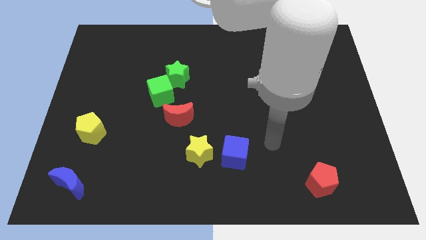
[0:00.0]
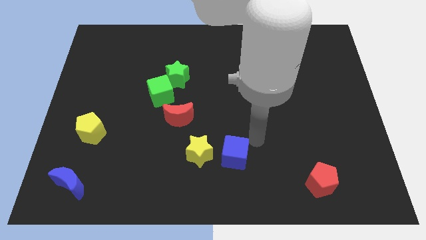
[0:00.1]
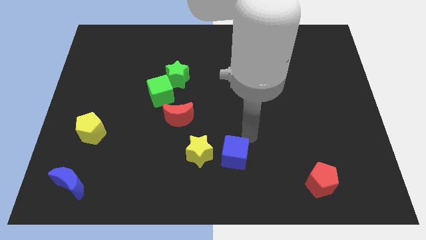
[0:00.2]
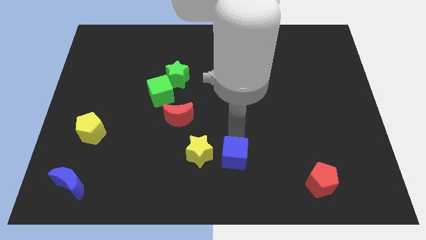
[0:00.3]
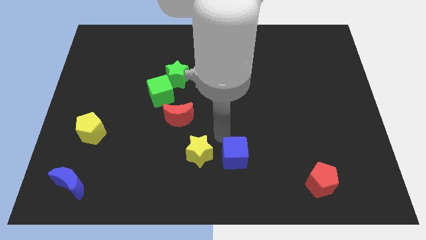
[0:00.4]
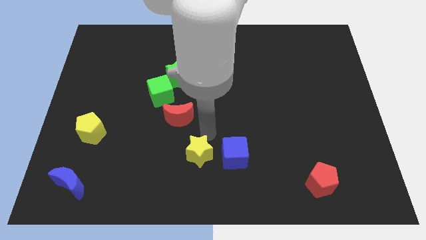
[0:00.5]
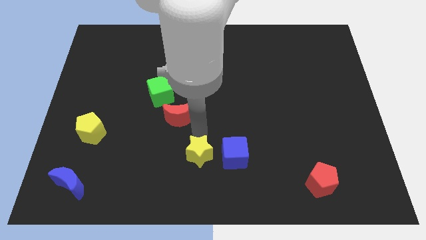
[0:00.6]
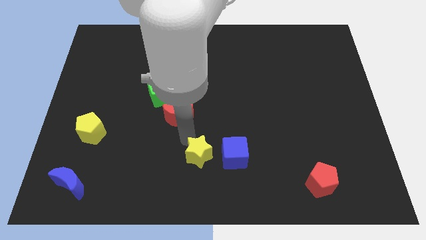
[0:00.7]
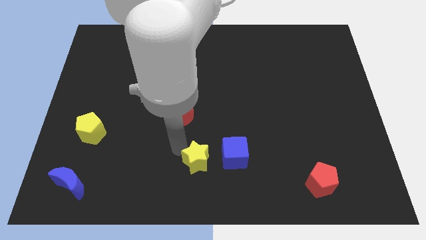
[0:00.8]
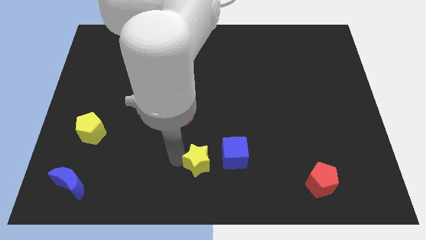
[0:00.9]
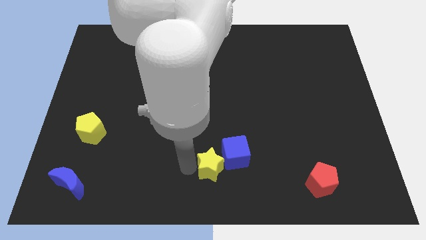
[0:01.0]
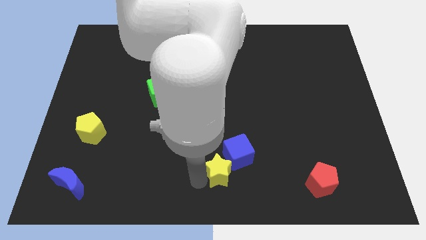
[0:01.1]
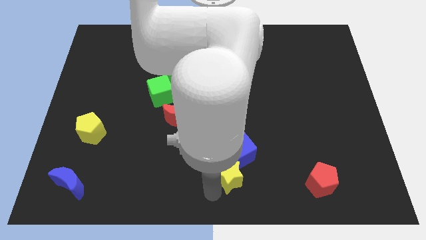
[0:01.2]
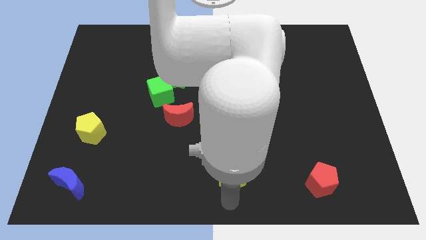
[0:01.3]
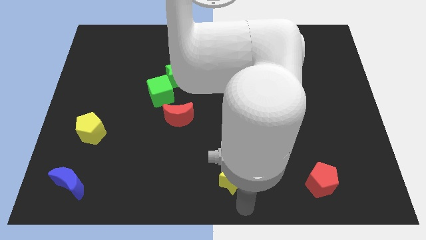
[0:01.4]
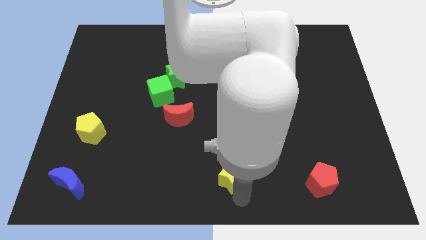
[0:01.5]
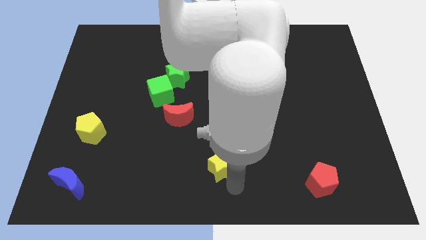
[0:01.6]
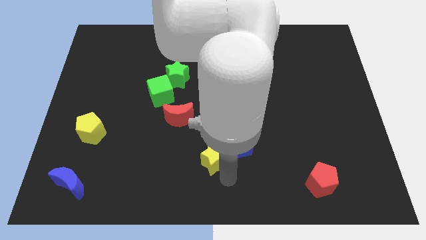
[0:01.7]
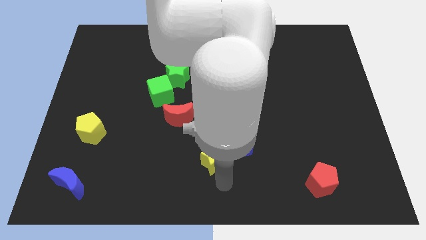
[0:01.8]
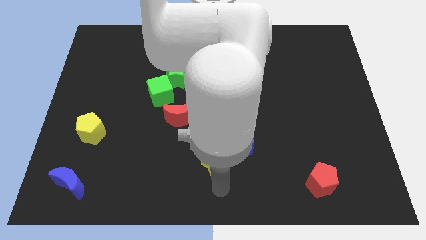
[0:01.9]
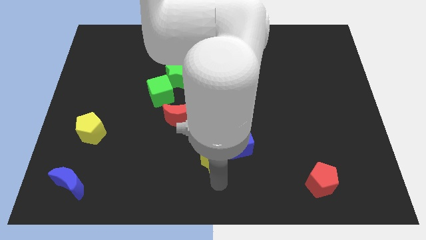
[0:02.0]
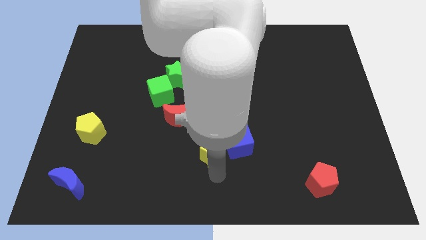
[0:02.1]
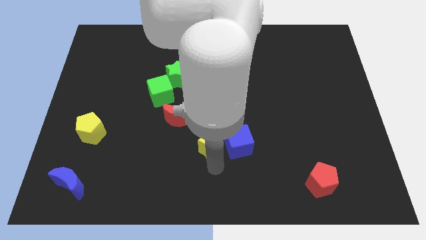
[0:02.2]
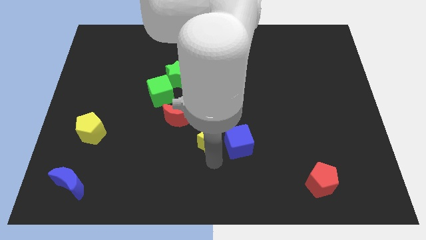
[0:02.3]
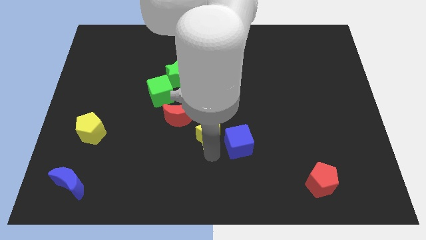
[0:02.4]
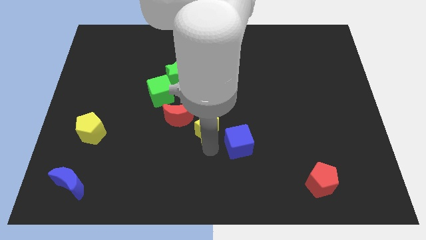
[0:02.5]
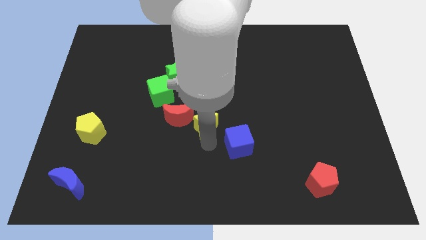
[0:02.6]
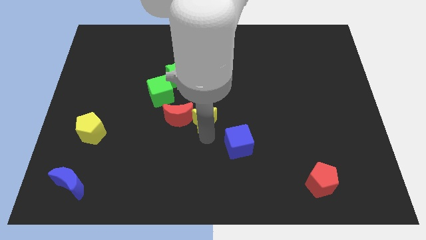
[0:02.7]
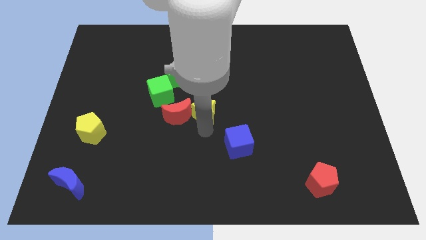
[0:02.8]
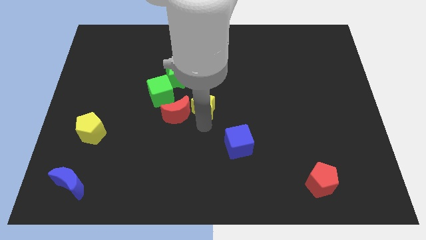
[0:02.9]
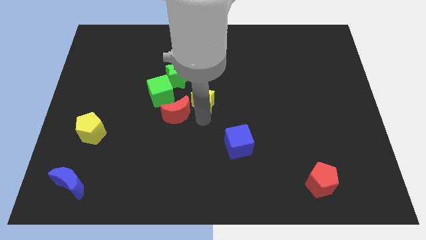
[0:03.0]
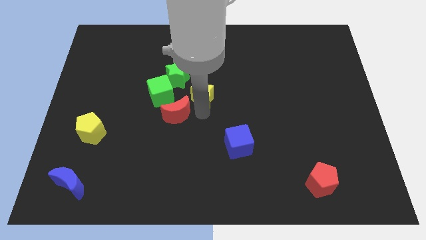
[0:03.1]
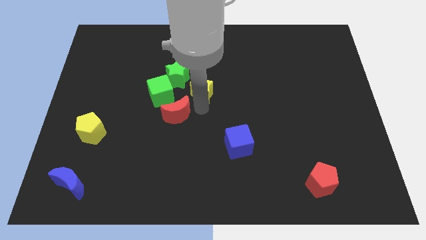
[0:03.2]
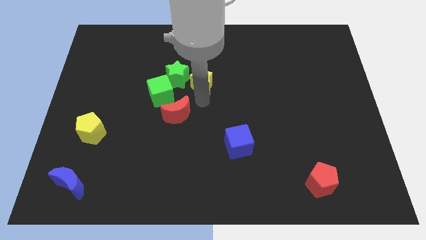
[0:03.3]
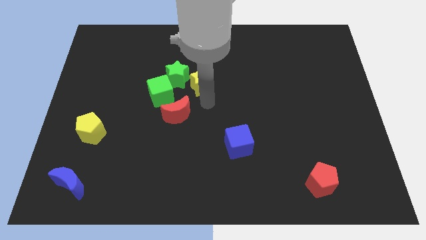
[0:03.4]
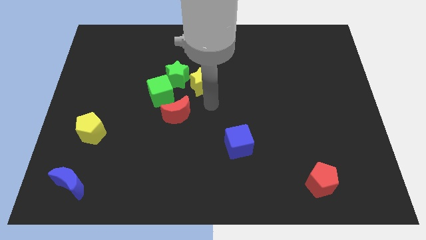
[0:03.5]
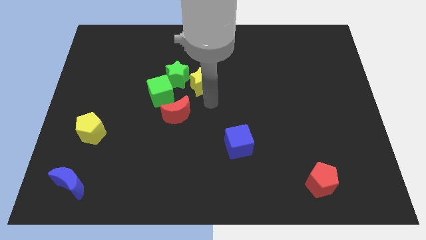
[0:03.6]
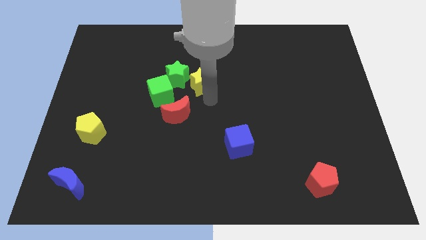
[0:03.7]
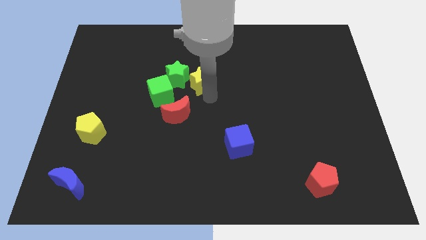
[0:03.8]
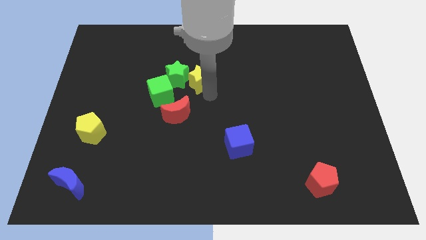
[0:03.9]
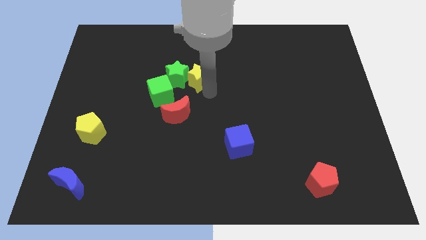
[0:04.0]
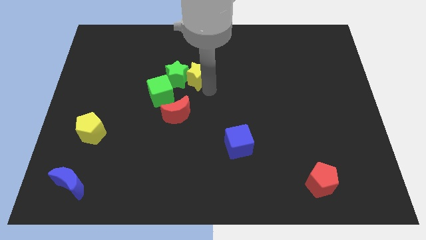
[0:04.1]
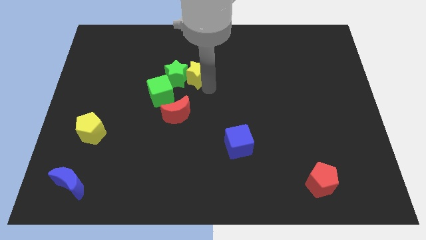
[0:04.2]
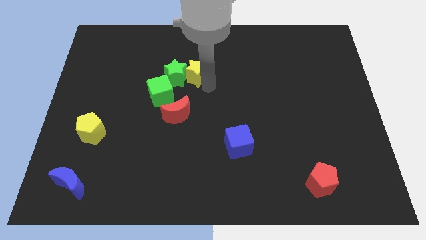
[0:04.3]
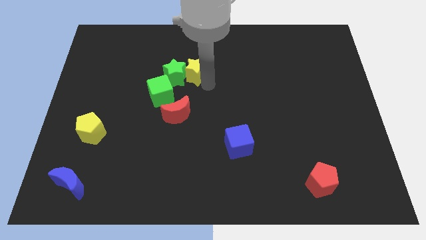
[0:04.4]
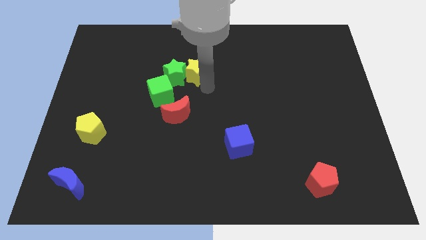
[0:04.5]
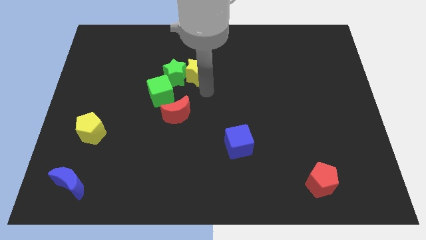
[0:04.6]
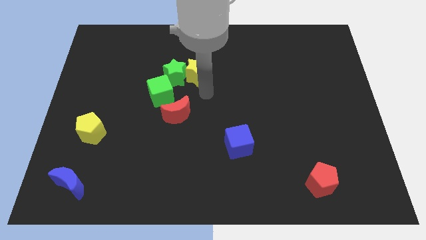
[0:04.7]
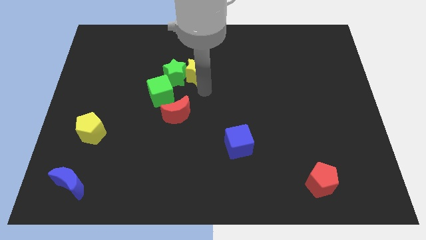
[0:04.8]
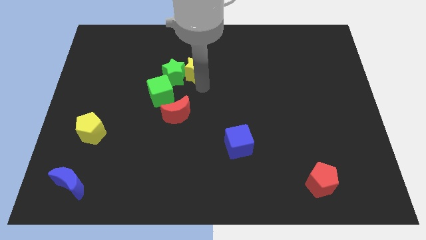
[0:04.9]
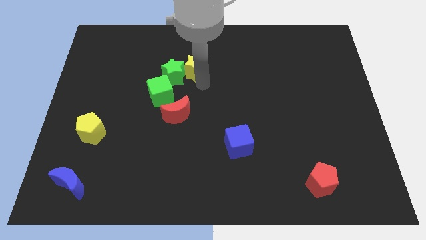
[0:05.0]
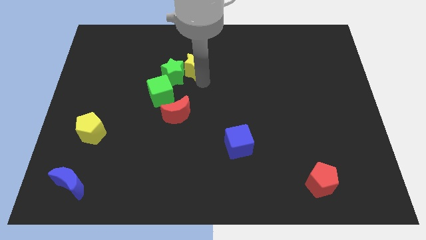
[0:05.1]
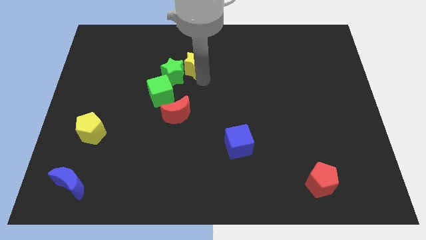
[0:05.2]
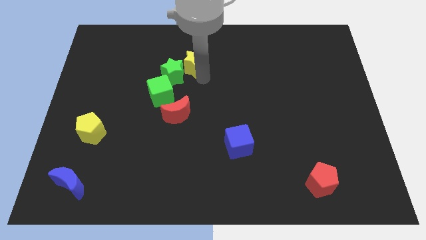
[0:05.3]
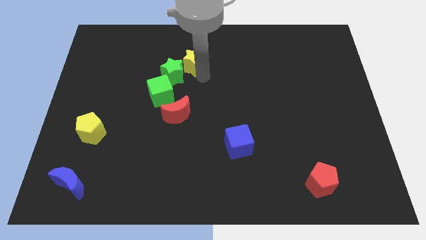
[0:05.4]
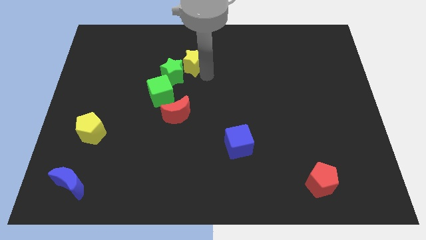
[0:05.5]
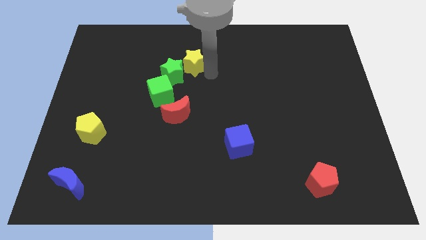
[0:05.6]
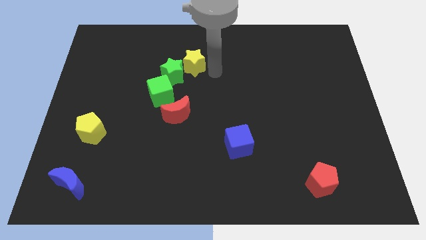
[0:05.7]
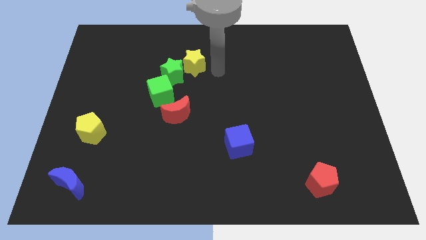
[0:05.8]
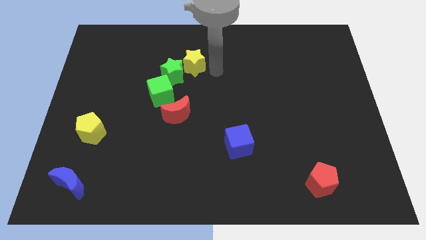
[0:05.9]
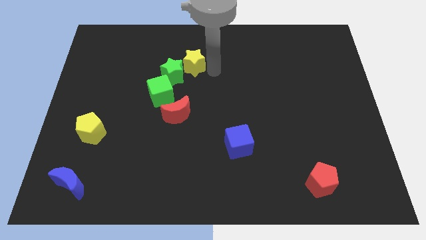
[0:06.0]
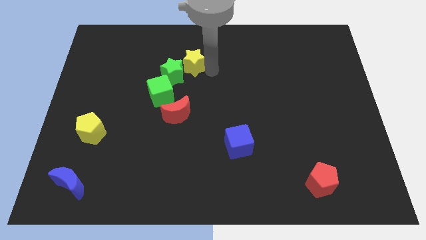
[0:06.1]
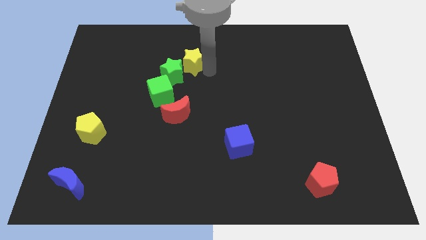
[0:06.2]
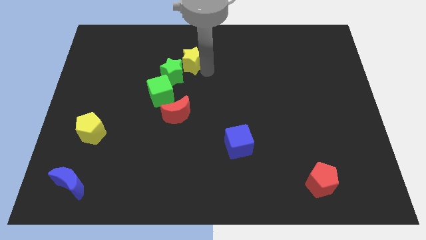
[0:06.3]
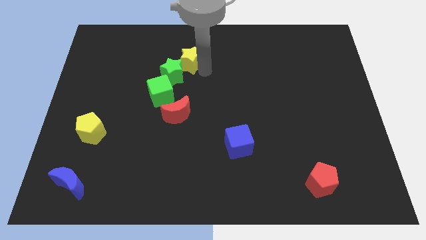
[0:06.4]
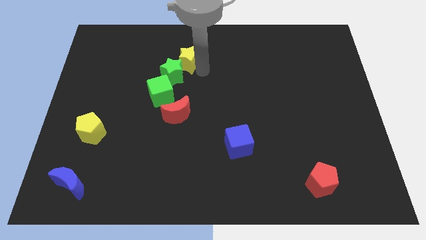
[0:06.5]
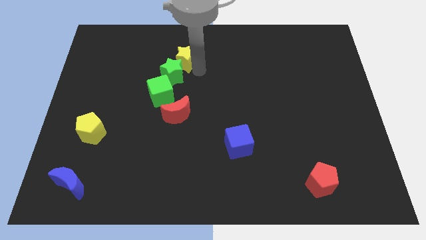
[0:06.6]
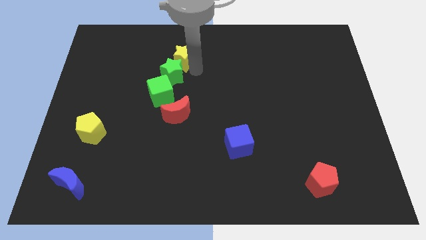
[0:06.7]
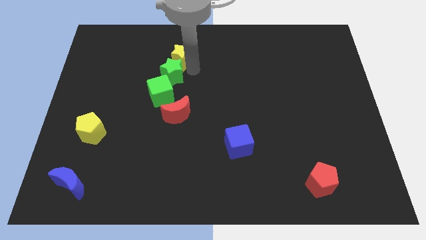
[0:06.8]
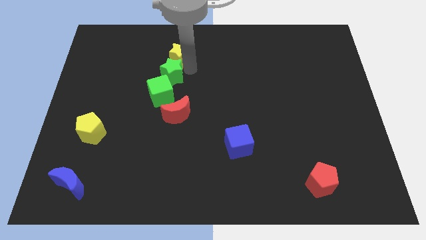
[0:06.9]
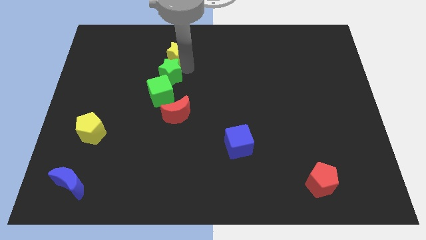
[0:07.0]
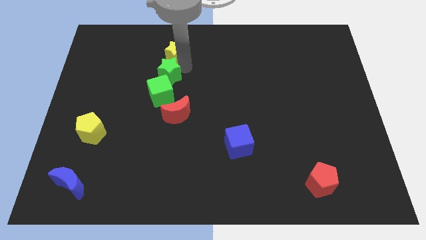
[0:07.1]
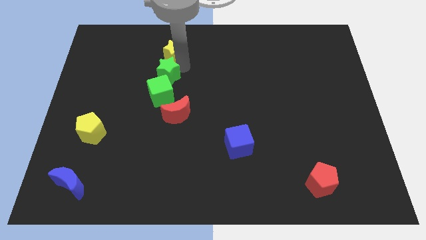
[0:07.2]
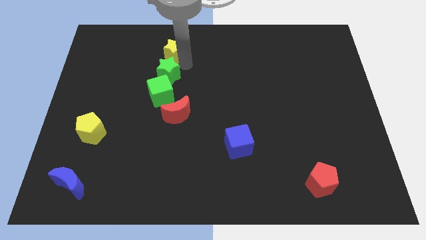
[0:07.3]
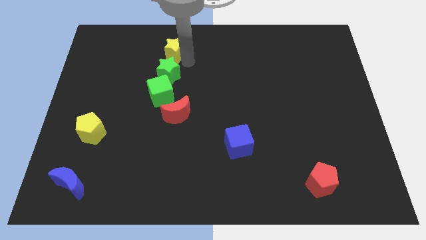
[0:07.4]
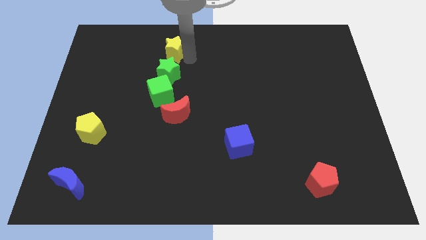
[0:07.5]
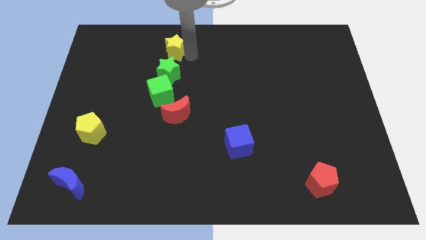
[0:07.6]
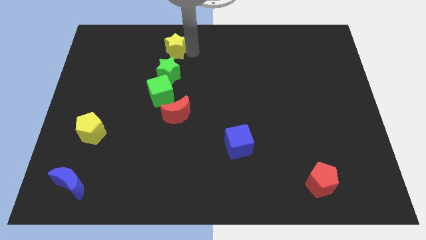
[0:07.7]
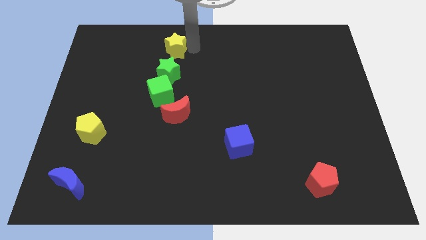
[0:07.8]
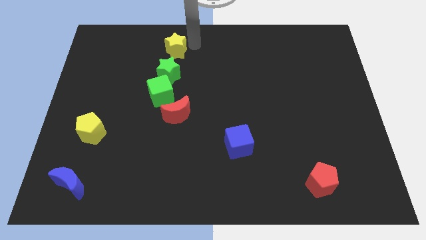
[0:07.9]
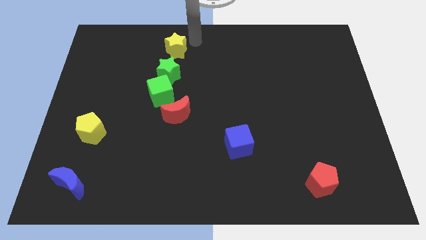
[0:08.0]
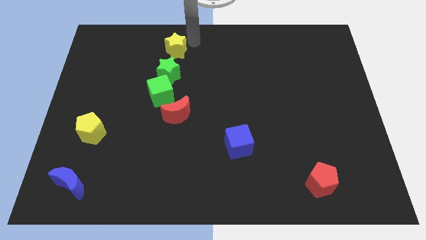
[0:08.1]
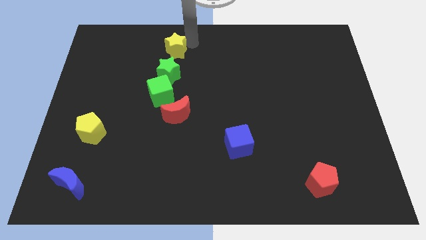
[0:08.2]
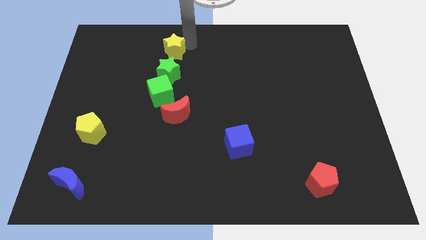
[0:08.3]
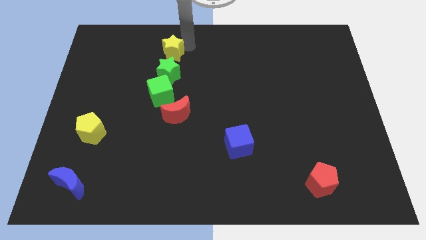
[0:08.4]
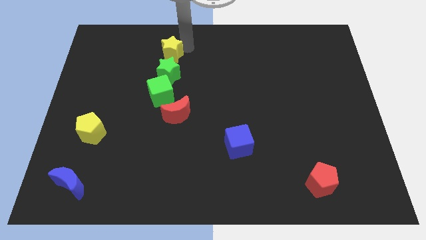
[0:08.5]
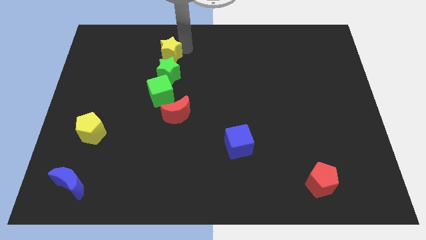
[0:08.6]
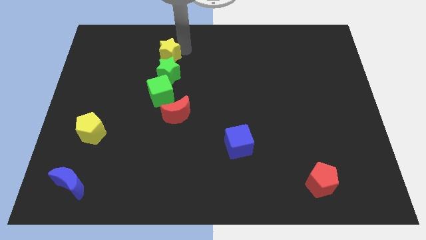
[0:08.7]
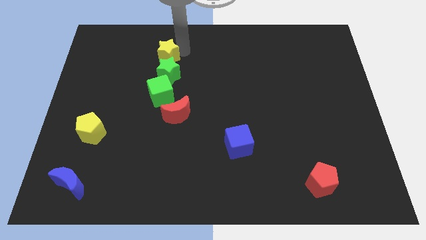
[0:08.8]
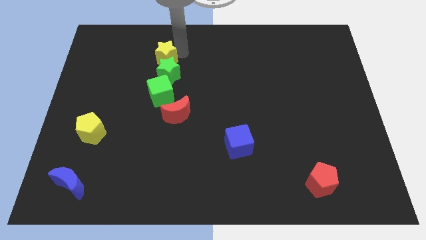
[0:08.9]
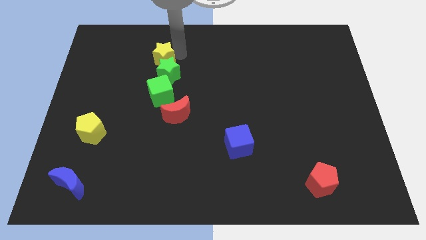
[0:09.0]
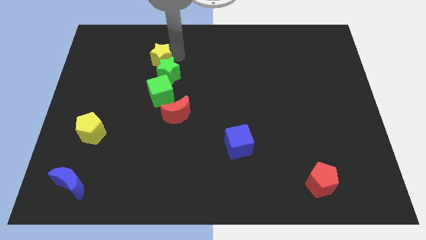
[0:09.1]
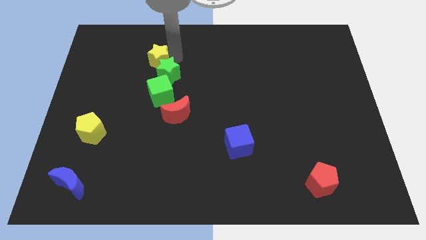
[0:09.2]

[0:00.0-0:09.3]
push the yellow star up and to the left
